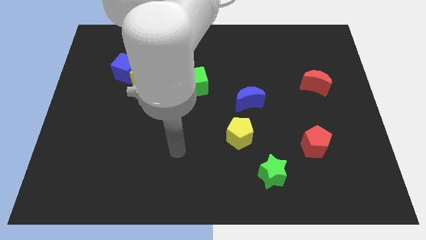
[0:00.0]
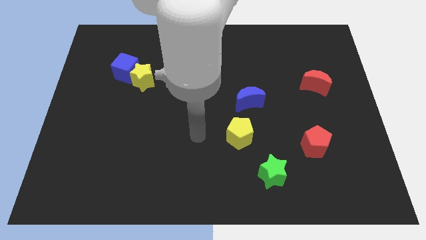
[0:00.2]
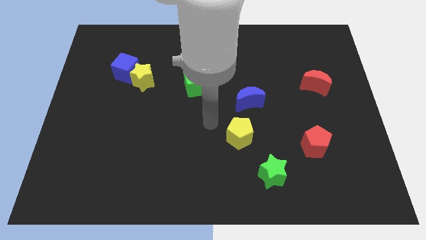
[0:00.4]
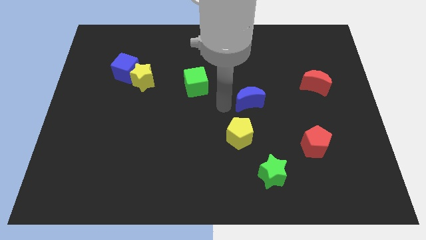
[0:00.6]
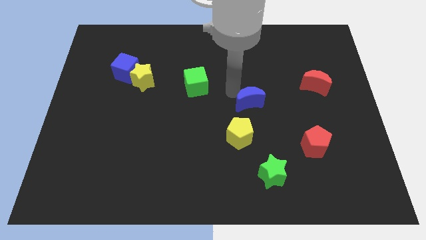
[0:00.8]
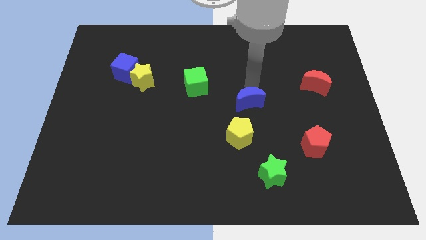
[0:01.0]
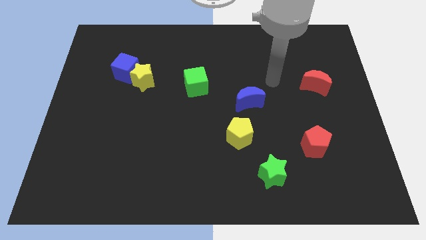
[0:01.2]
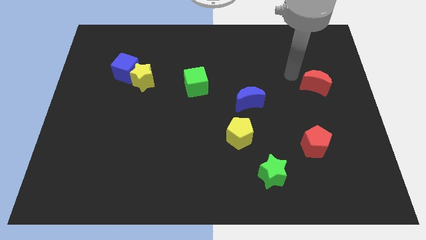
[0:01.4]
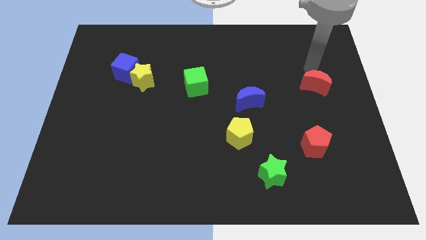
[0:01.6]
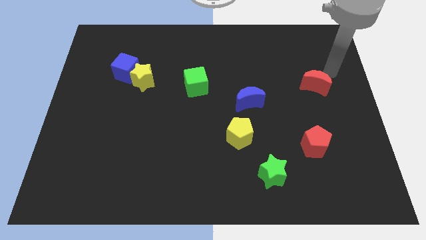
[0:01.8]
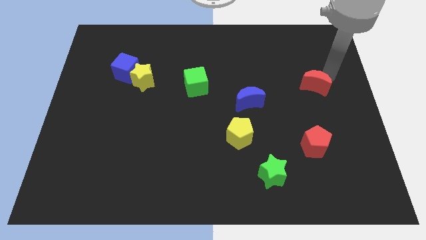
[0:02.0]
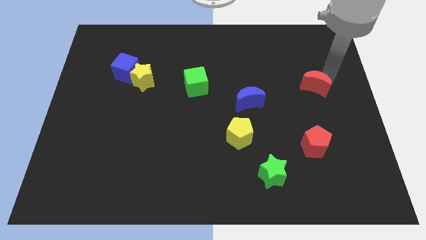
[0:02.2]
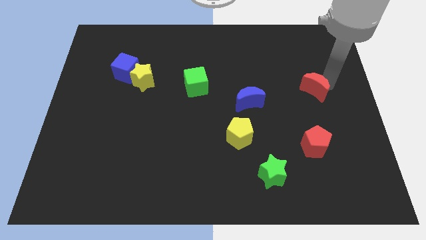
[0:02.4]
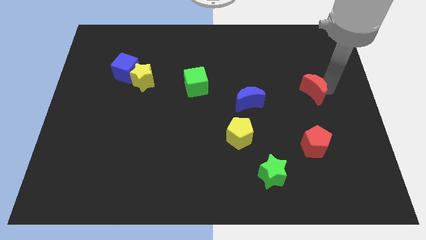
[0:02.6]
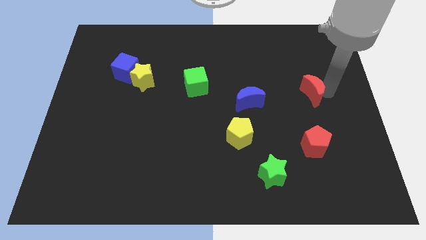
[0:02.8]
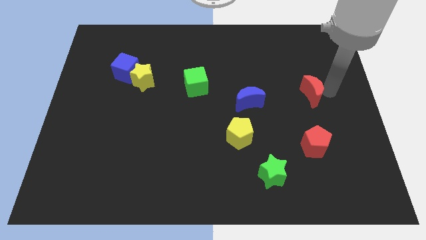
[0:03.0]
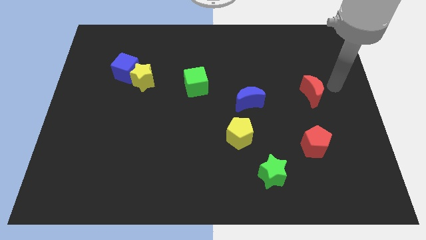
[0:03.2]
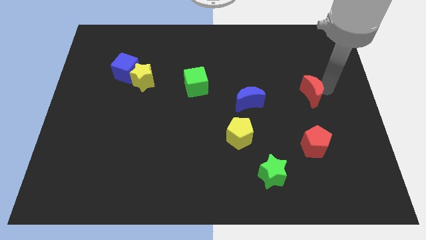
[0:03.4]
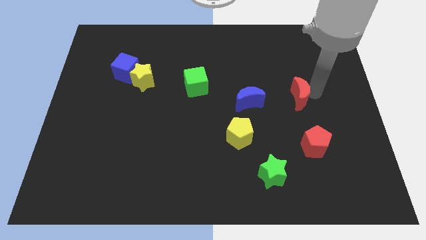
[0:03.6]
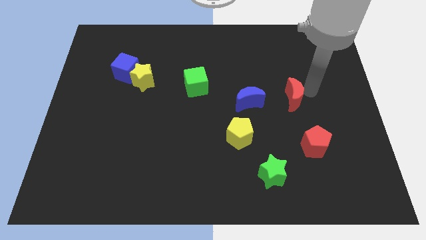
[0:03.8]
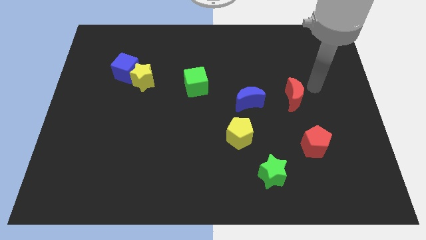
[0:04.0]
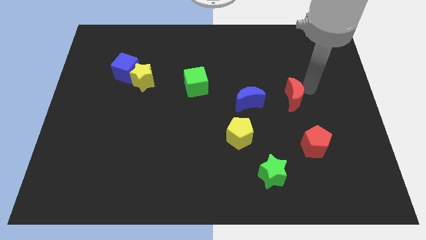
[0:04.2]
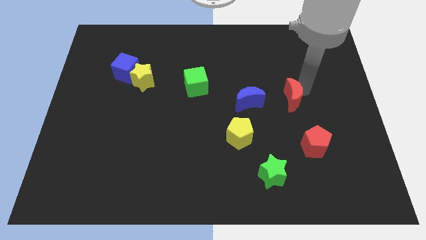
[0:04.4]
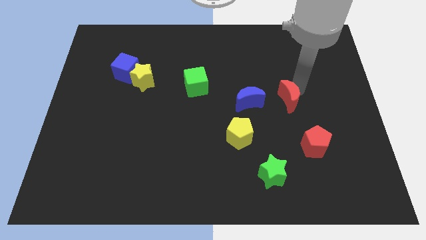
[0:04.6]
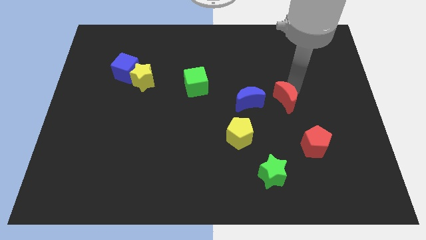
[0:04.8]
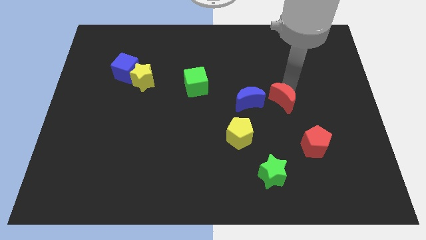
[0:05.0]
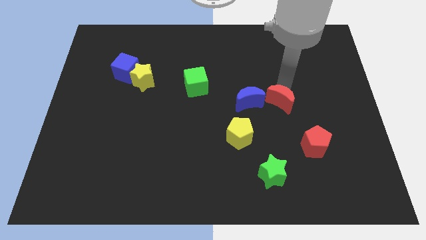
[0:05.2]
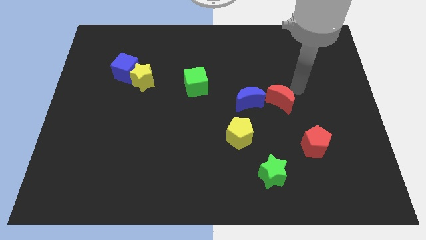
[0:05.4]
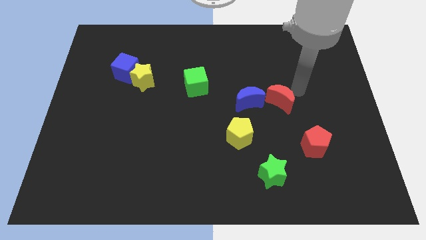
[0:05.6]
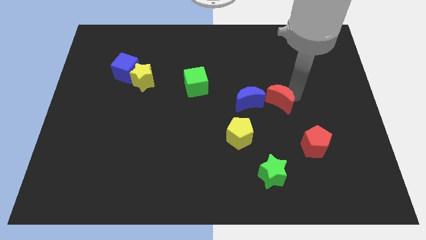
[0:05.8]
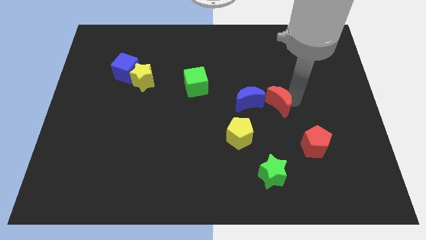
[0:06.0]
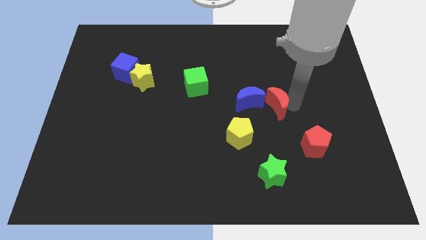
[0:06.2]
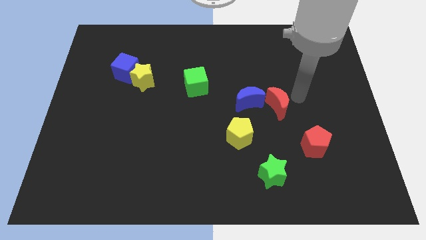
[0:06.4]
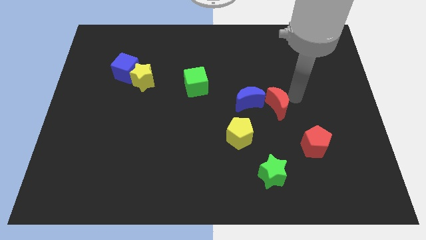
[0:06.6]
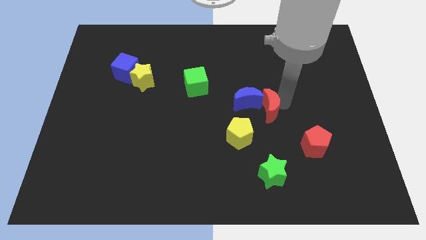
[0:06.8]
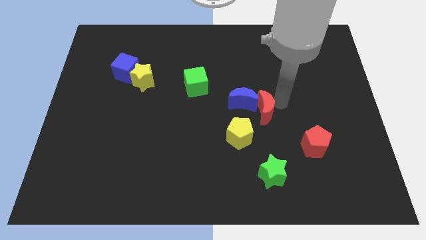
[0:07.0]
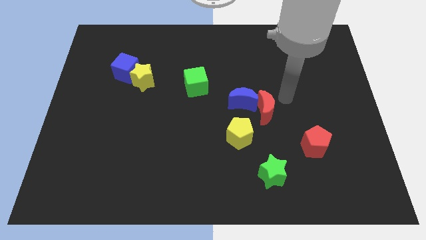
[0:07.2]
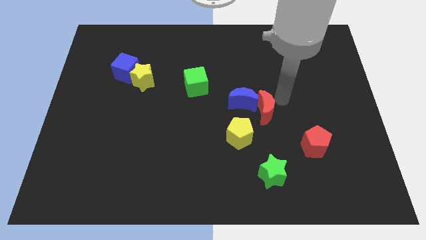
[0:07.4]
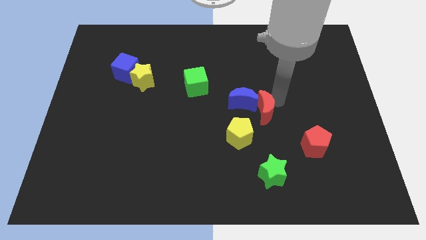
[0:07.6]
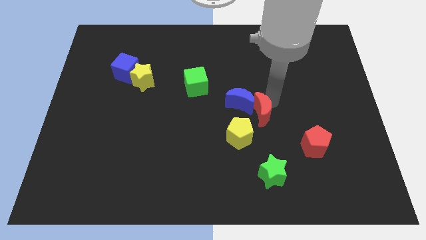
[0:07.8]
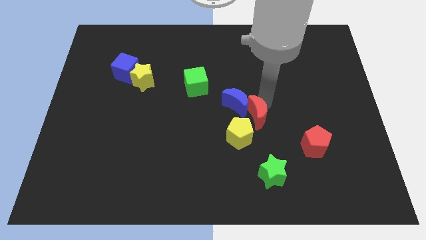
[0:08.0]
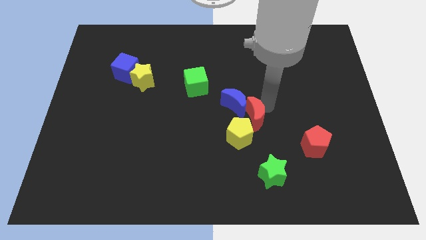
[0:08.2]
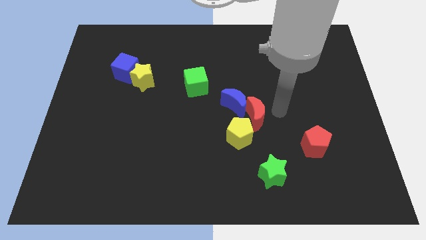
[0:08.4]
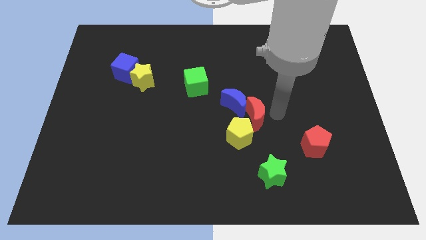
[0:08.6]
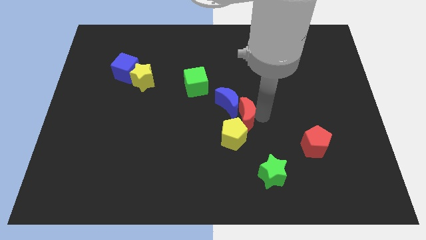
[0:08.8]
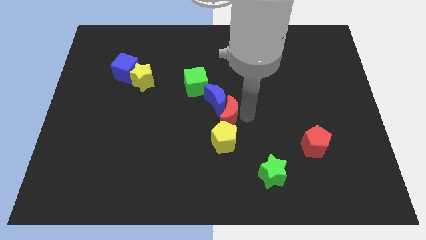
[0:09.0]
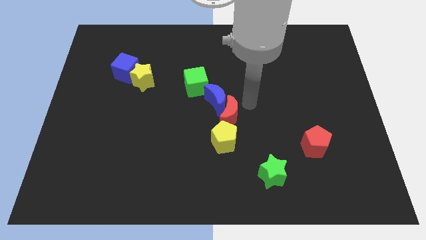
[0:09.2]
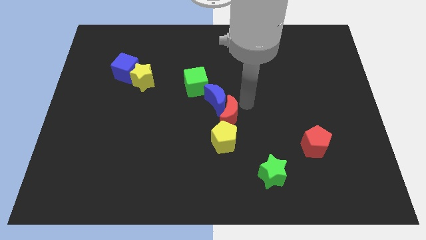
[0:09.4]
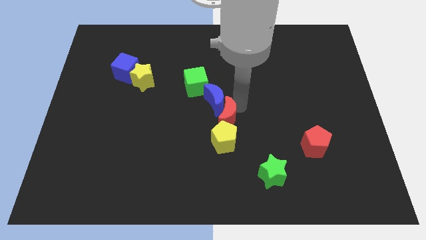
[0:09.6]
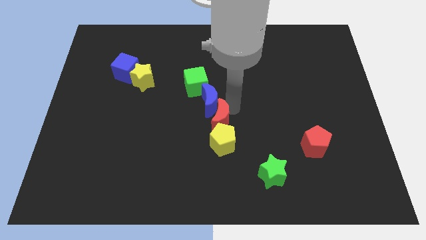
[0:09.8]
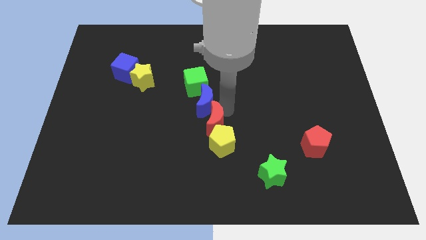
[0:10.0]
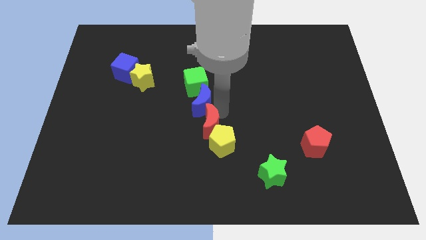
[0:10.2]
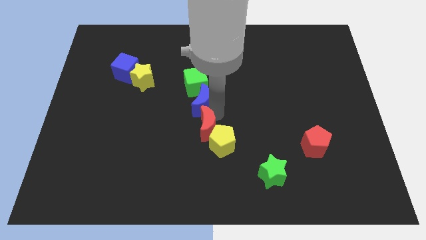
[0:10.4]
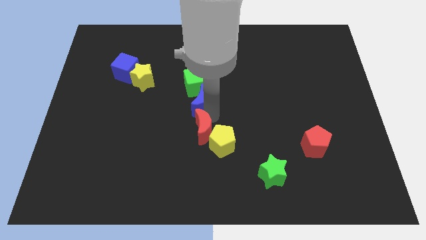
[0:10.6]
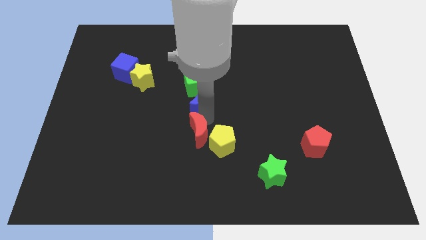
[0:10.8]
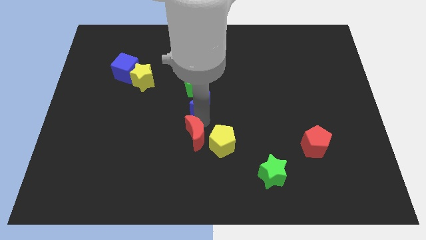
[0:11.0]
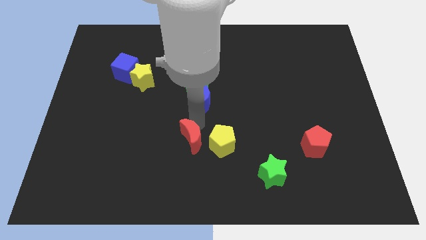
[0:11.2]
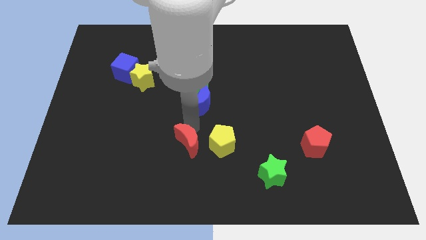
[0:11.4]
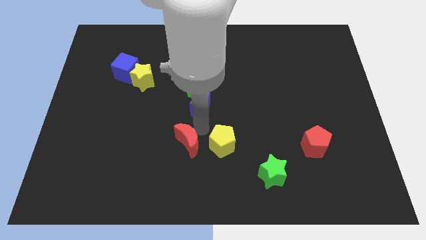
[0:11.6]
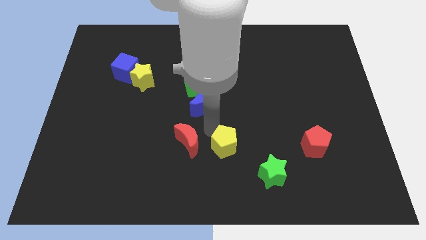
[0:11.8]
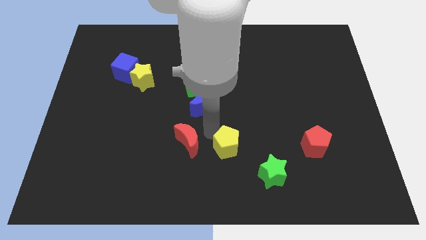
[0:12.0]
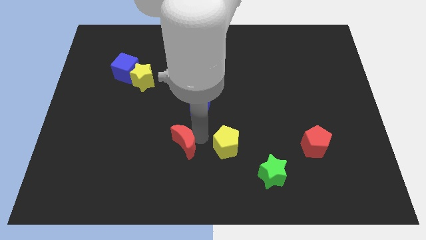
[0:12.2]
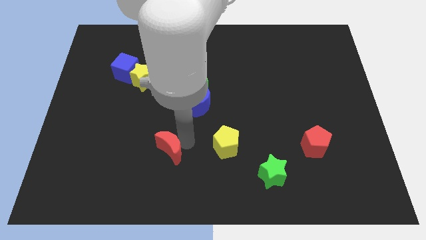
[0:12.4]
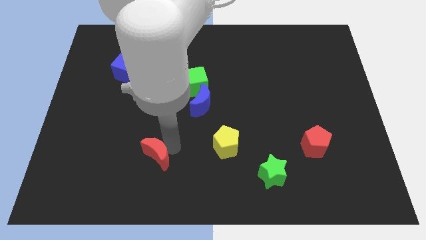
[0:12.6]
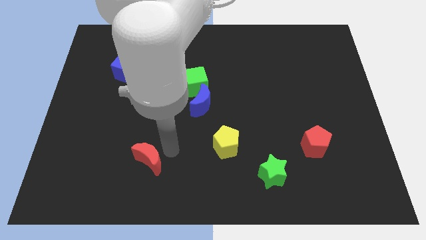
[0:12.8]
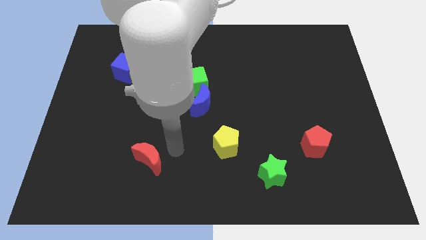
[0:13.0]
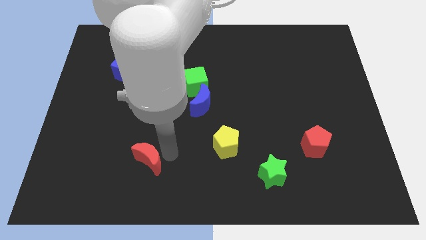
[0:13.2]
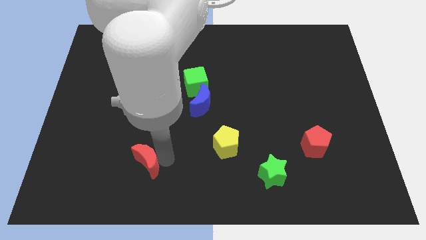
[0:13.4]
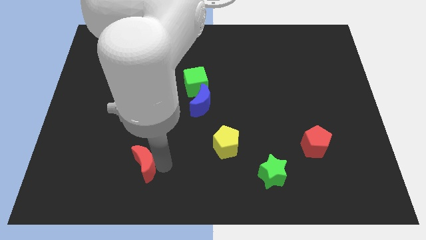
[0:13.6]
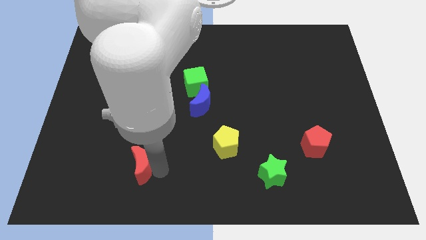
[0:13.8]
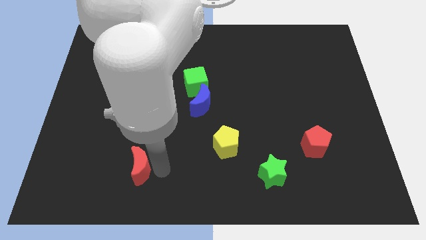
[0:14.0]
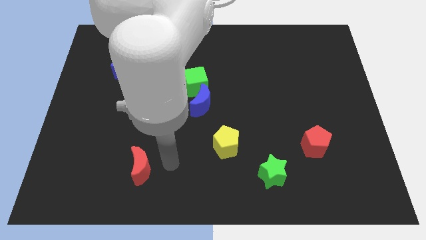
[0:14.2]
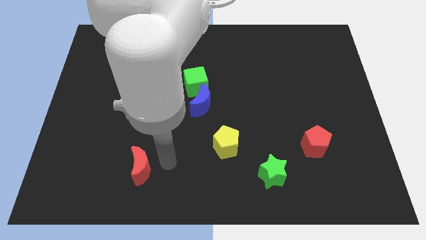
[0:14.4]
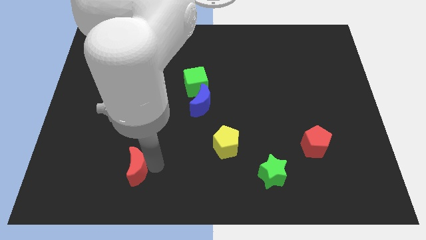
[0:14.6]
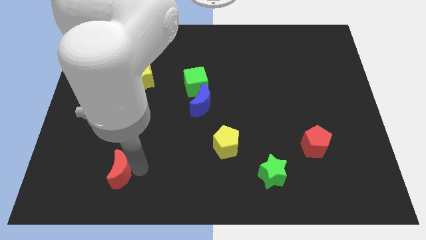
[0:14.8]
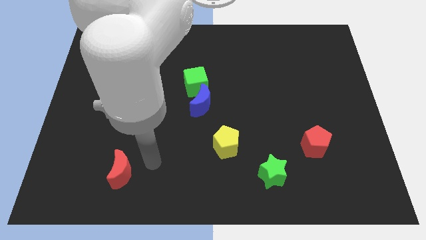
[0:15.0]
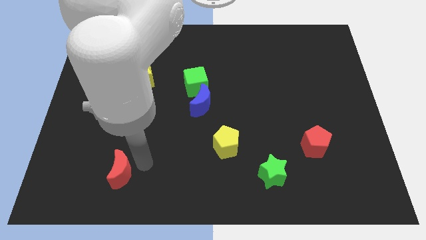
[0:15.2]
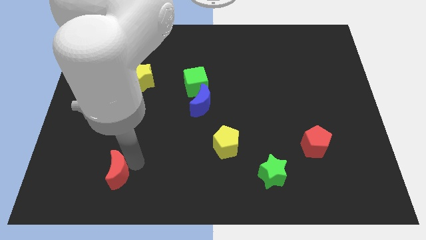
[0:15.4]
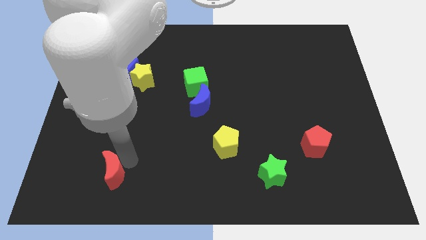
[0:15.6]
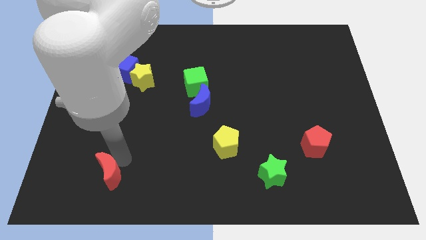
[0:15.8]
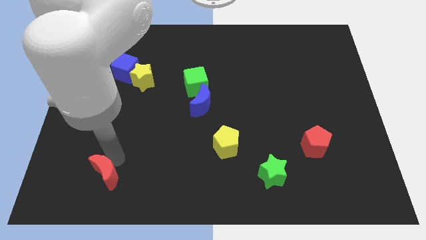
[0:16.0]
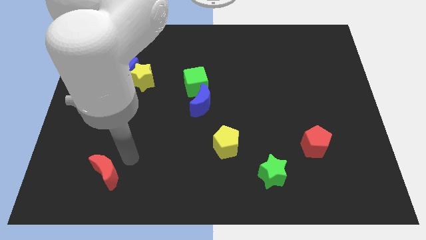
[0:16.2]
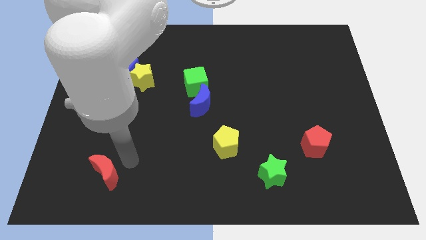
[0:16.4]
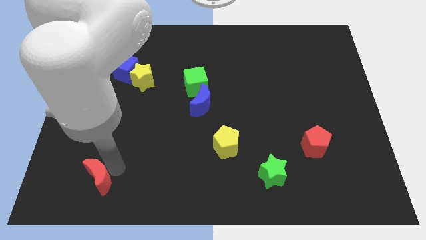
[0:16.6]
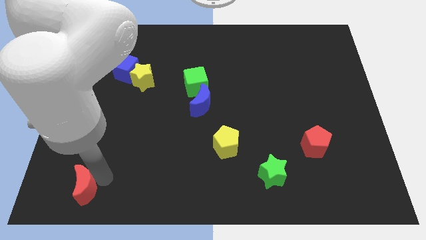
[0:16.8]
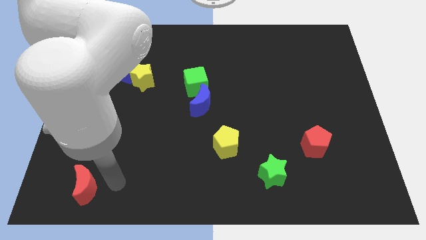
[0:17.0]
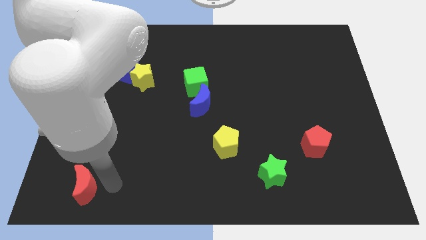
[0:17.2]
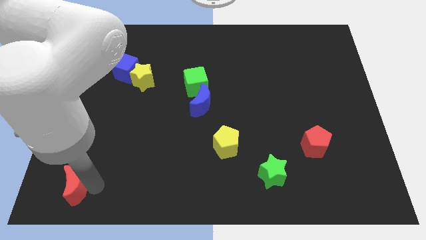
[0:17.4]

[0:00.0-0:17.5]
move the red moon to the bottom left corner
